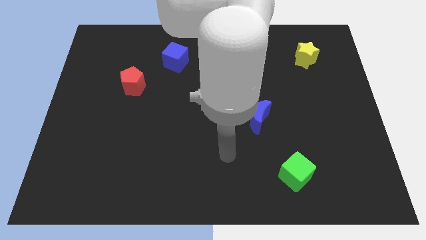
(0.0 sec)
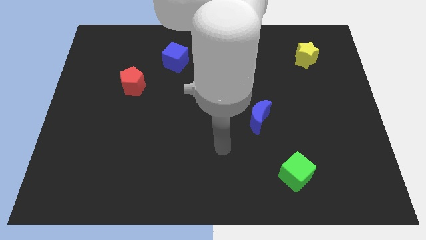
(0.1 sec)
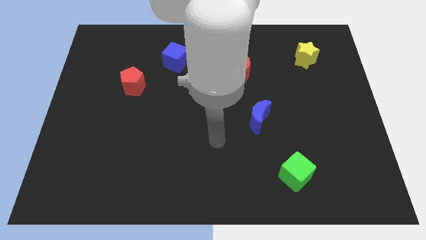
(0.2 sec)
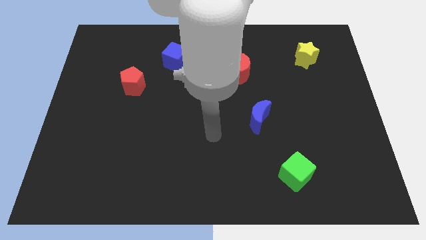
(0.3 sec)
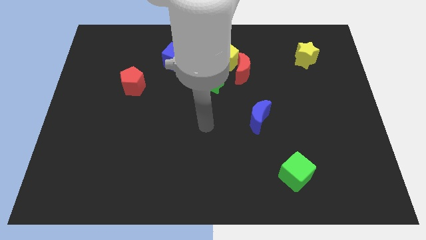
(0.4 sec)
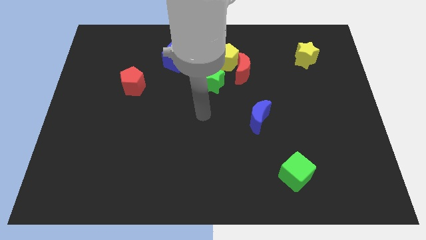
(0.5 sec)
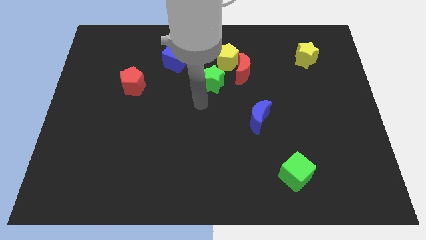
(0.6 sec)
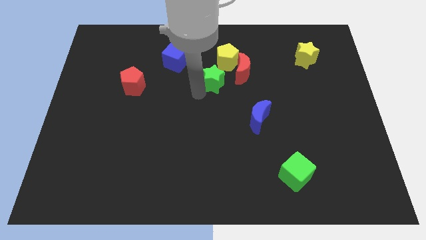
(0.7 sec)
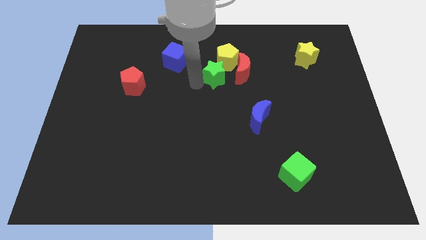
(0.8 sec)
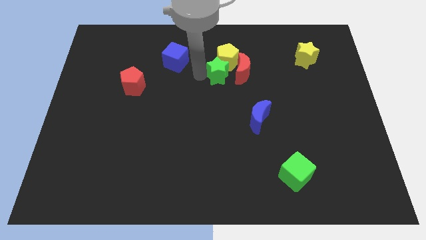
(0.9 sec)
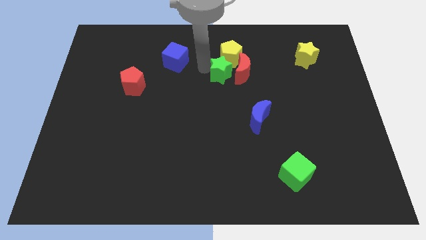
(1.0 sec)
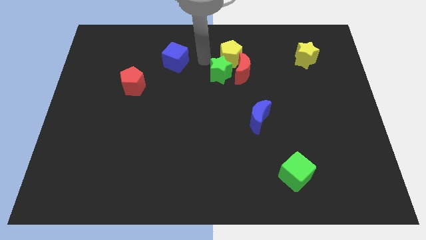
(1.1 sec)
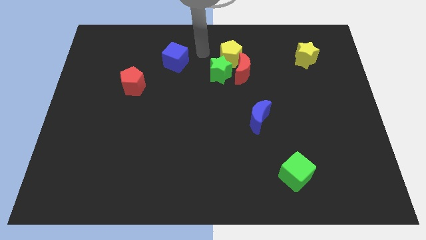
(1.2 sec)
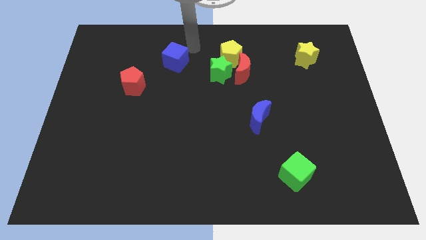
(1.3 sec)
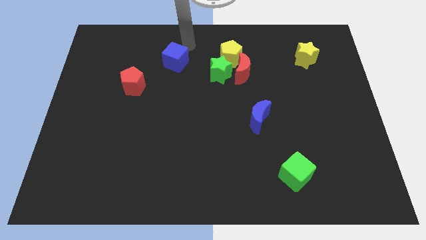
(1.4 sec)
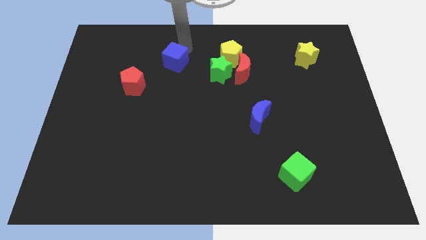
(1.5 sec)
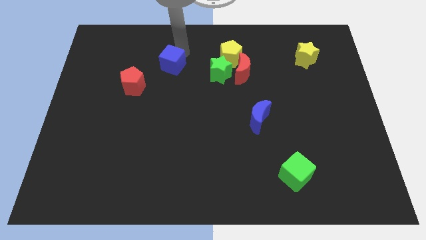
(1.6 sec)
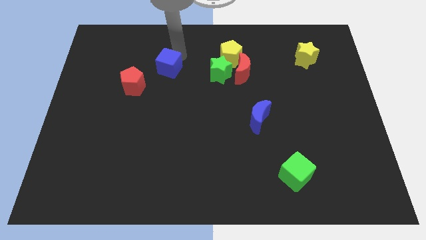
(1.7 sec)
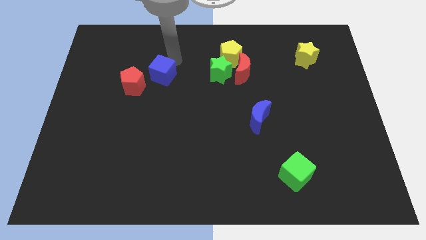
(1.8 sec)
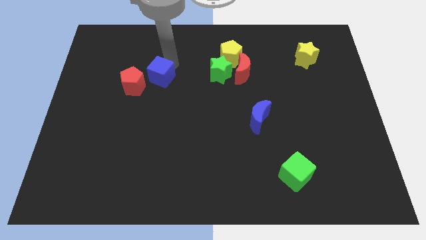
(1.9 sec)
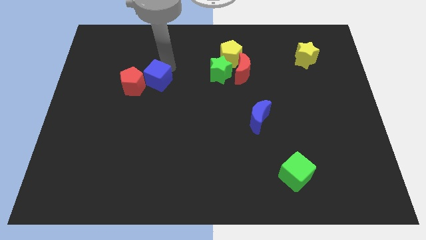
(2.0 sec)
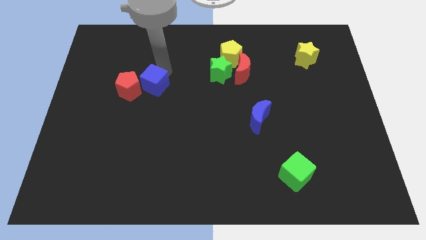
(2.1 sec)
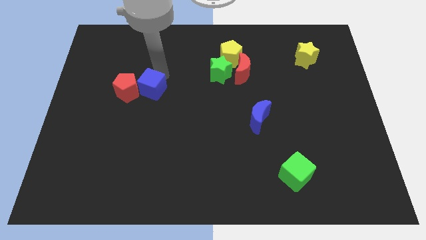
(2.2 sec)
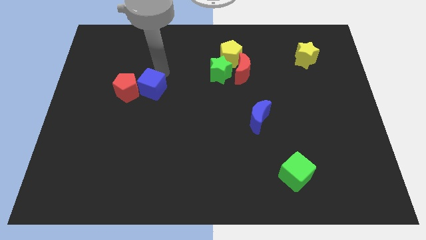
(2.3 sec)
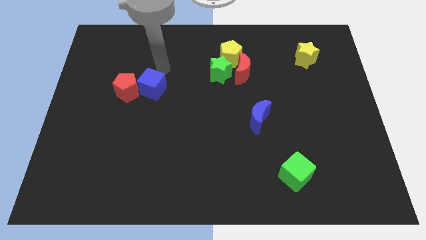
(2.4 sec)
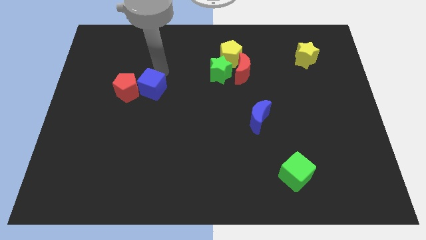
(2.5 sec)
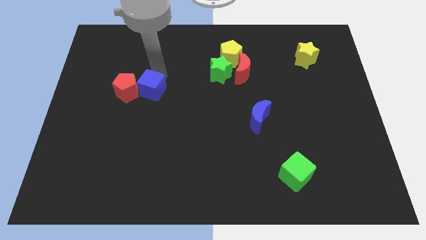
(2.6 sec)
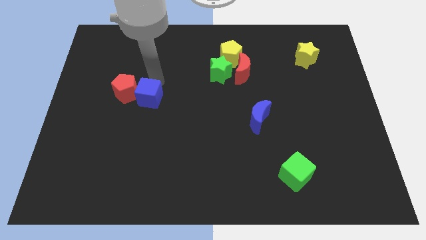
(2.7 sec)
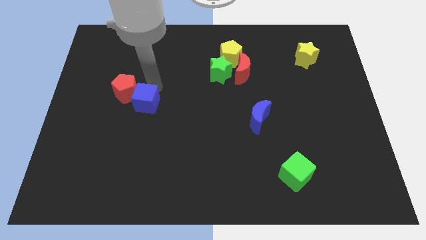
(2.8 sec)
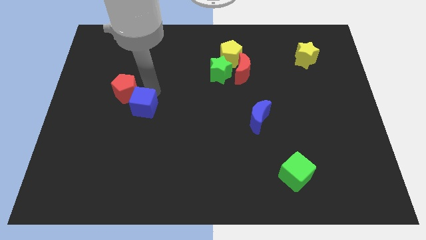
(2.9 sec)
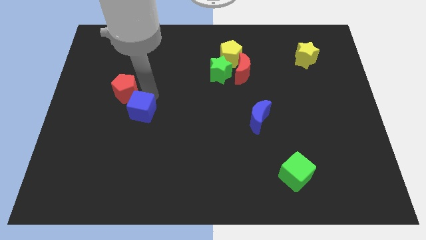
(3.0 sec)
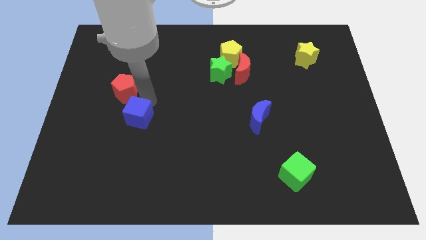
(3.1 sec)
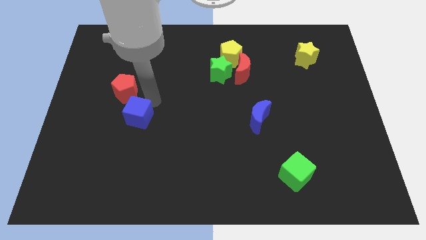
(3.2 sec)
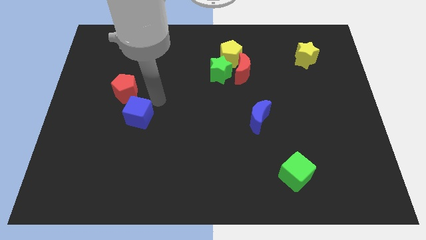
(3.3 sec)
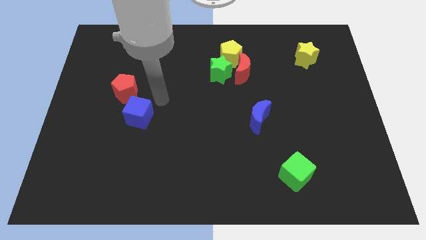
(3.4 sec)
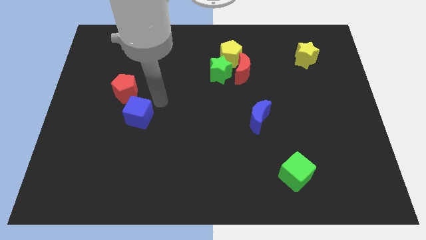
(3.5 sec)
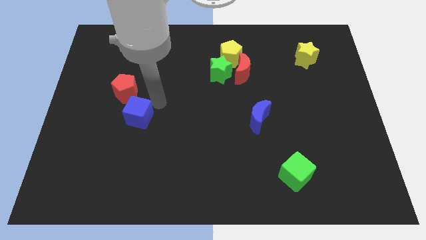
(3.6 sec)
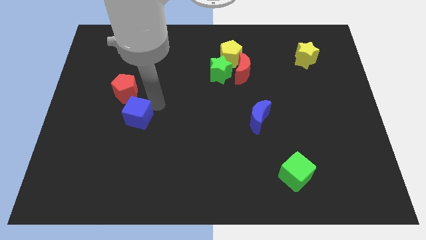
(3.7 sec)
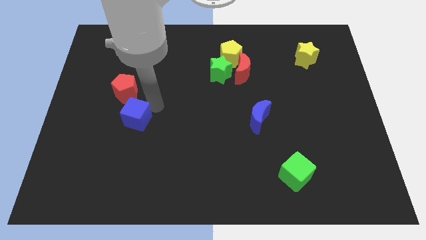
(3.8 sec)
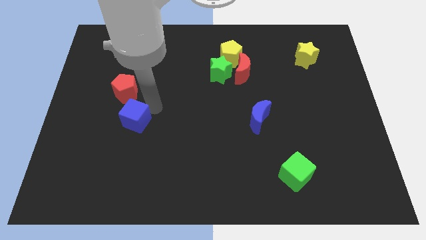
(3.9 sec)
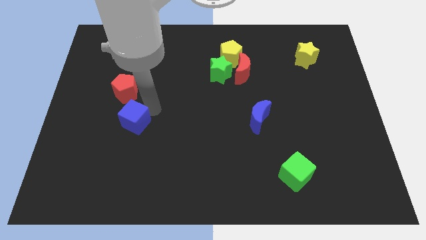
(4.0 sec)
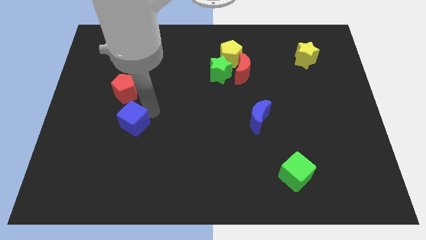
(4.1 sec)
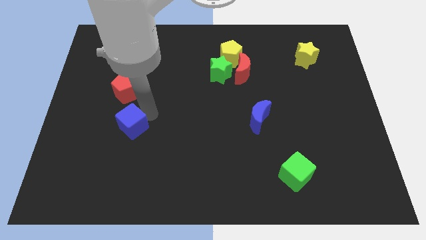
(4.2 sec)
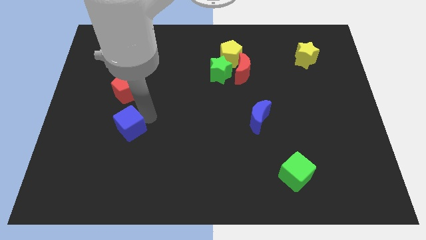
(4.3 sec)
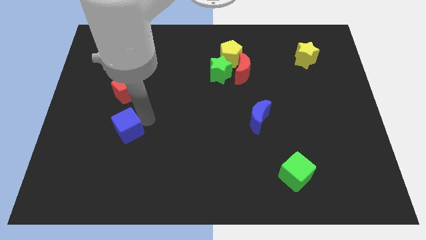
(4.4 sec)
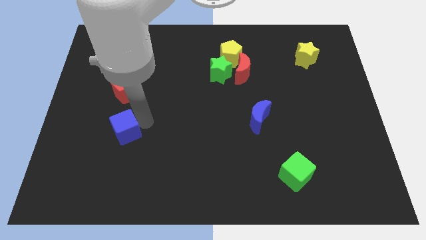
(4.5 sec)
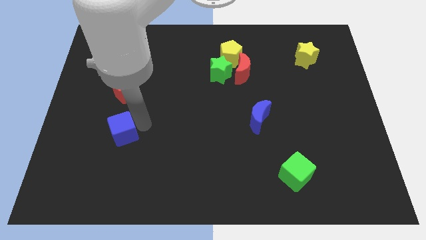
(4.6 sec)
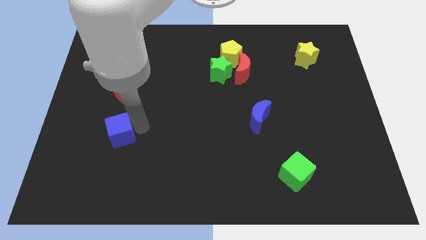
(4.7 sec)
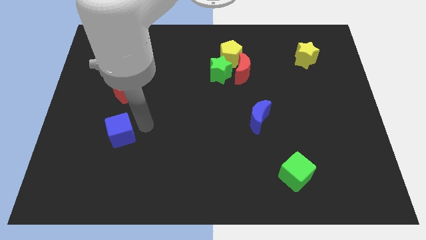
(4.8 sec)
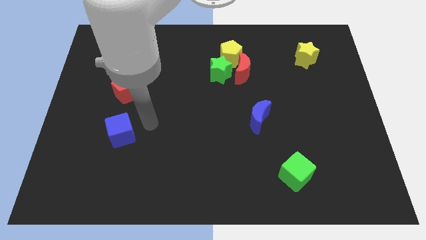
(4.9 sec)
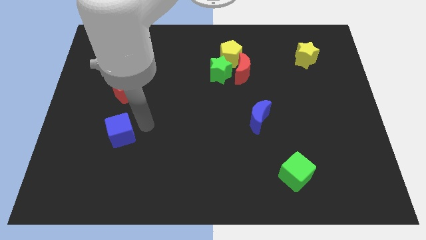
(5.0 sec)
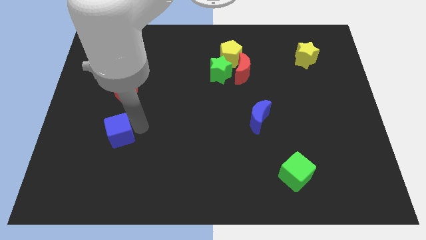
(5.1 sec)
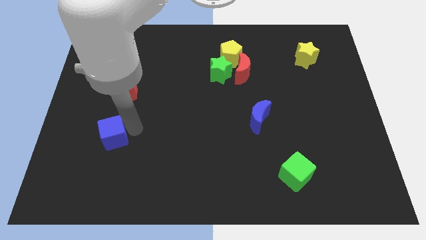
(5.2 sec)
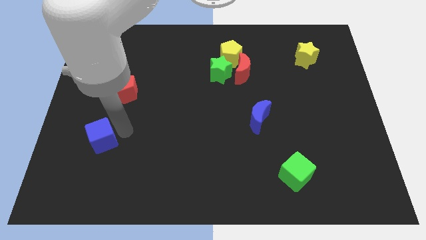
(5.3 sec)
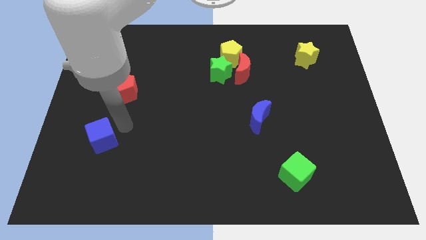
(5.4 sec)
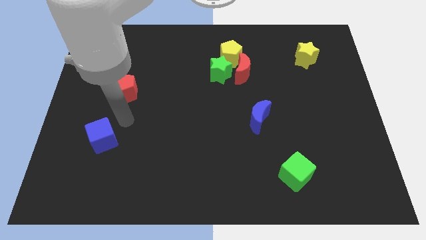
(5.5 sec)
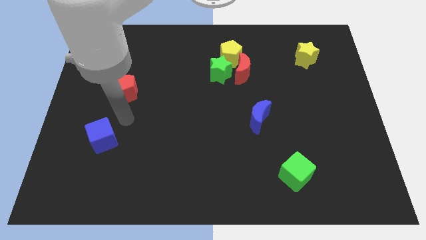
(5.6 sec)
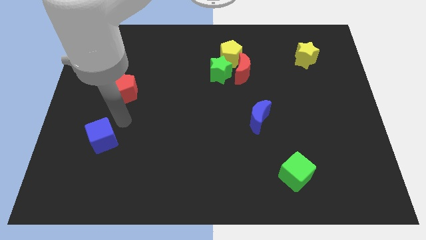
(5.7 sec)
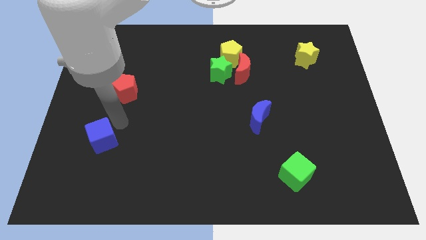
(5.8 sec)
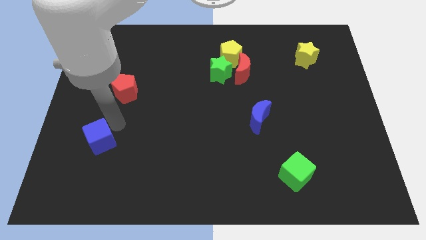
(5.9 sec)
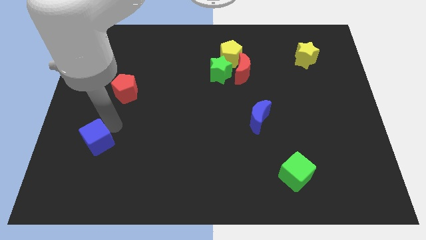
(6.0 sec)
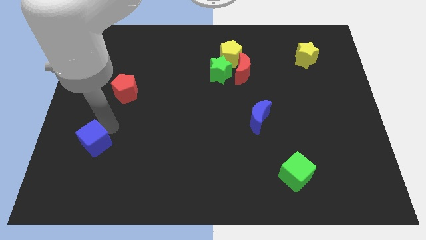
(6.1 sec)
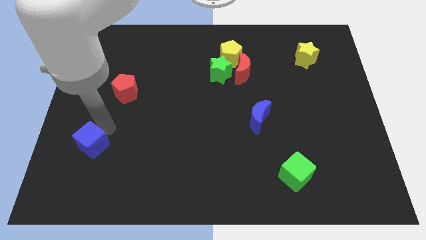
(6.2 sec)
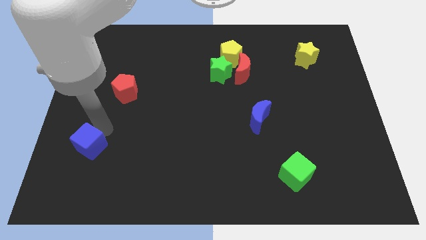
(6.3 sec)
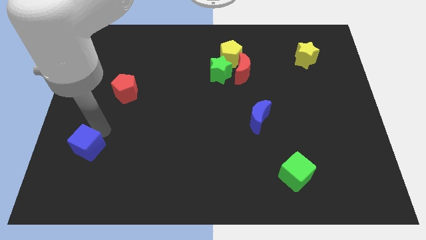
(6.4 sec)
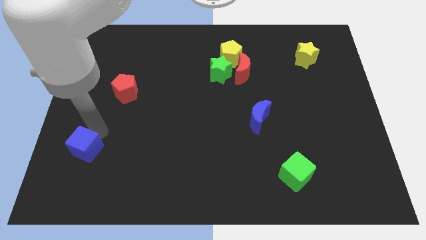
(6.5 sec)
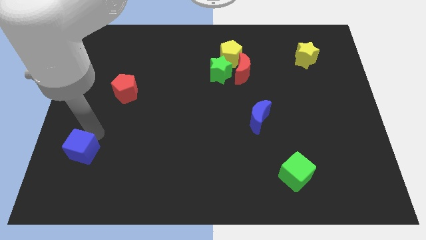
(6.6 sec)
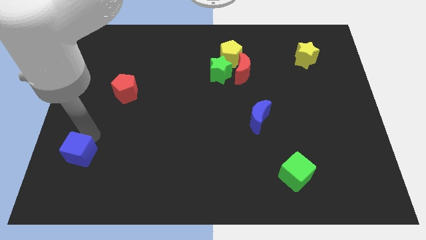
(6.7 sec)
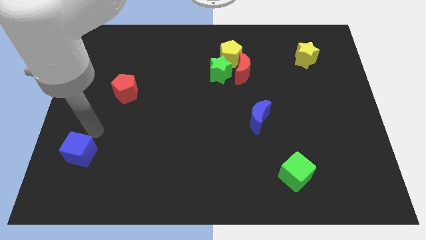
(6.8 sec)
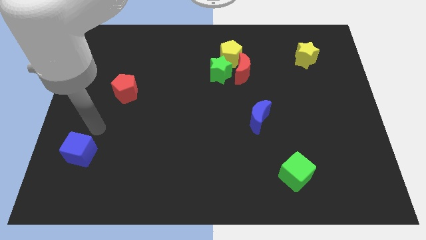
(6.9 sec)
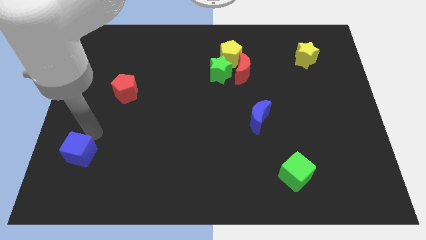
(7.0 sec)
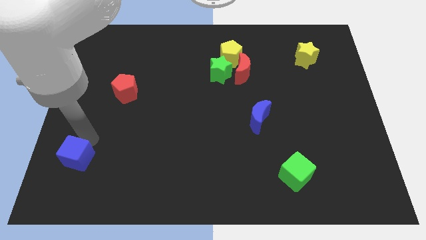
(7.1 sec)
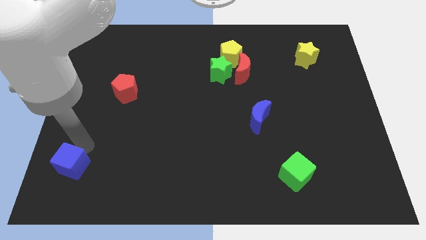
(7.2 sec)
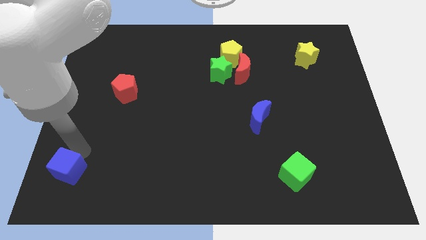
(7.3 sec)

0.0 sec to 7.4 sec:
move the blue cube to the bottom left
